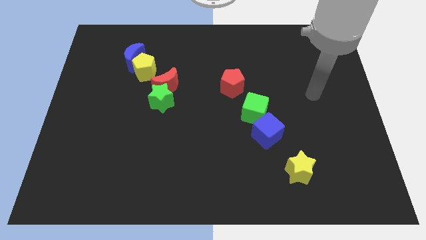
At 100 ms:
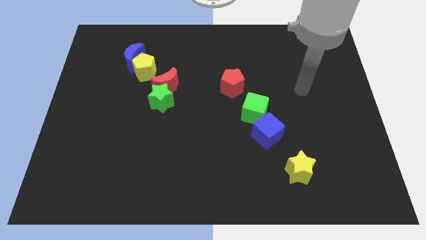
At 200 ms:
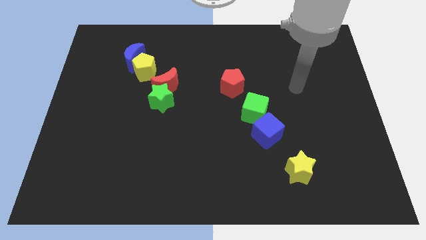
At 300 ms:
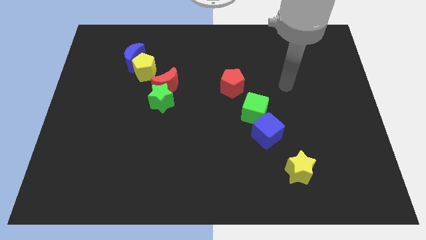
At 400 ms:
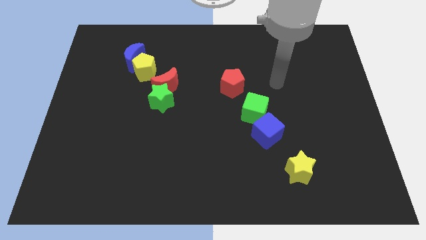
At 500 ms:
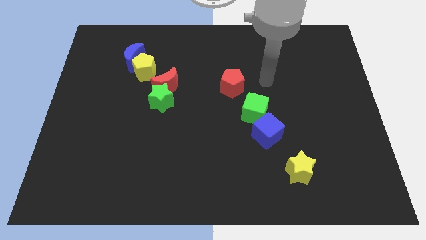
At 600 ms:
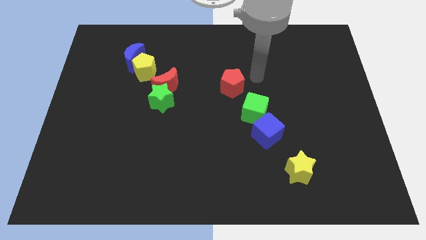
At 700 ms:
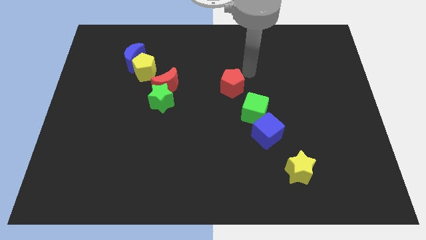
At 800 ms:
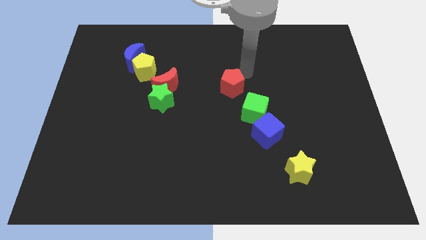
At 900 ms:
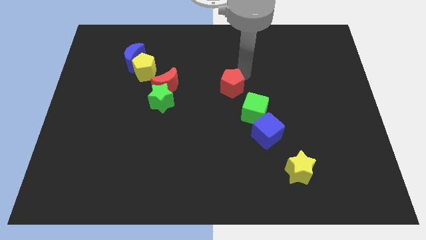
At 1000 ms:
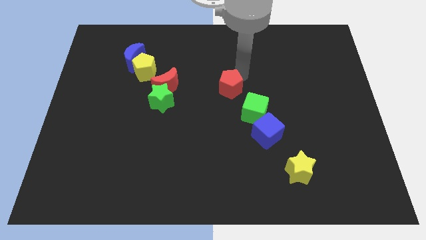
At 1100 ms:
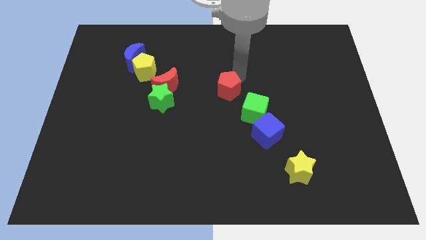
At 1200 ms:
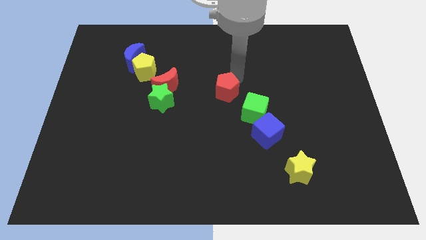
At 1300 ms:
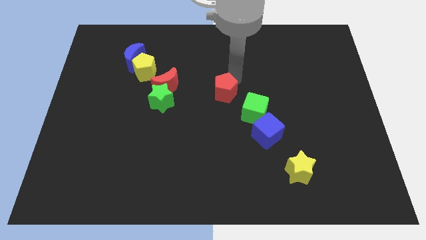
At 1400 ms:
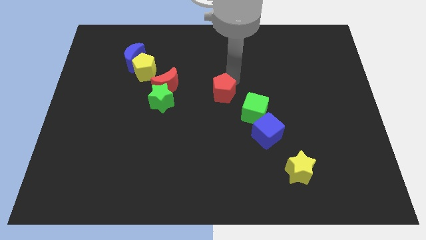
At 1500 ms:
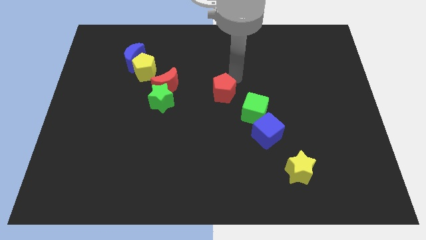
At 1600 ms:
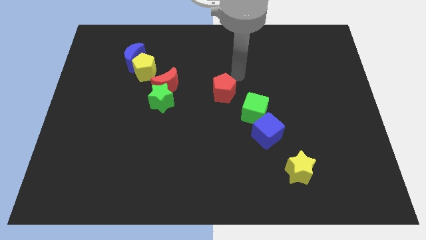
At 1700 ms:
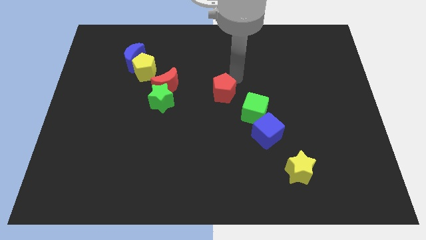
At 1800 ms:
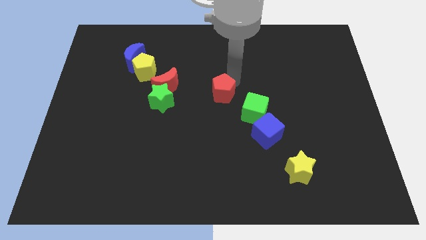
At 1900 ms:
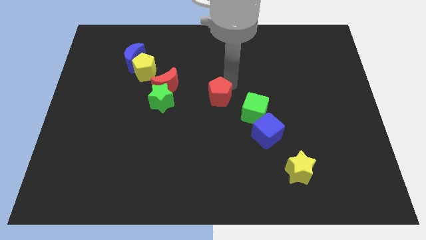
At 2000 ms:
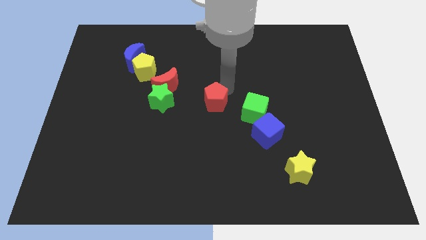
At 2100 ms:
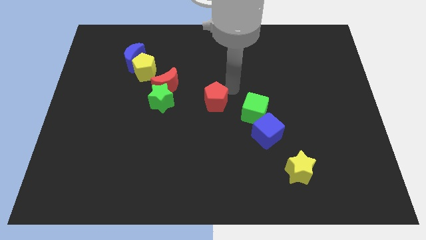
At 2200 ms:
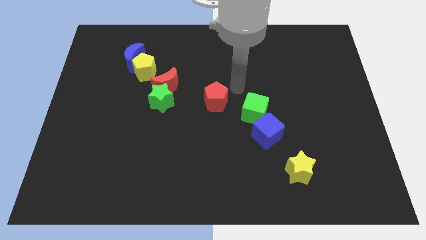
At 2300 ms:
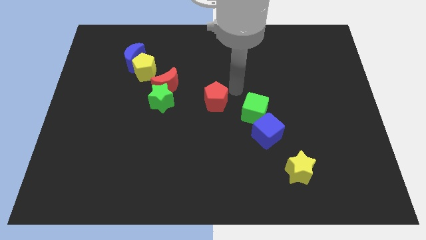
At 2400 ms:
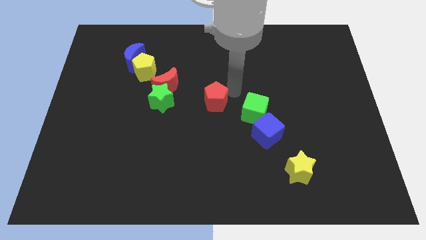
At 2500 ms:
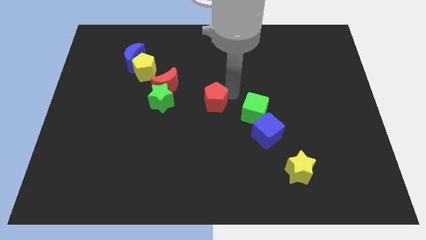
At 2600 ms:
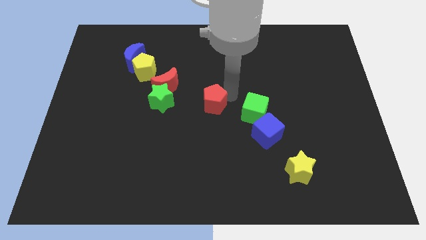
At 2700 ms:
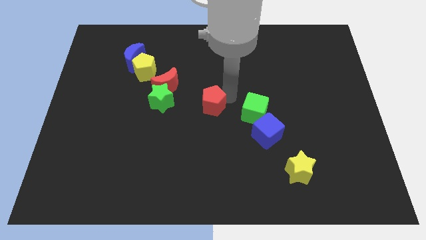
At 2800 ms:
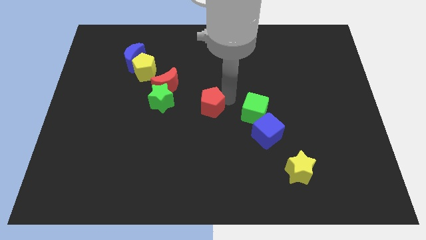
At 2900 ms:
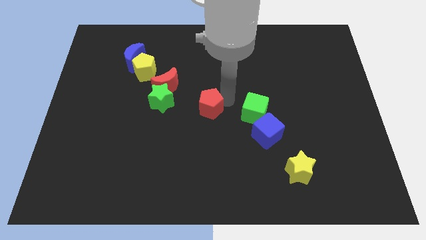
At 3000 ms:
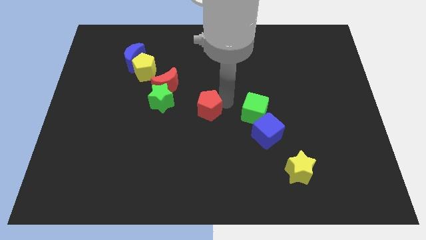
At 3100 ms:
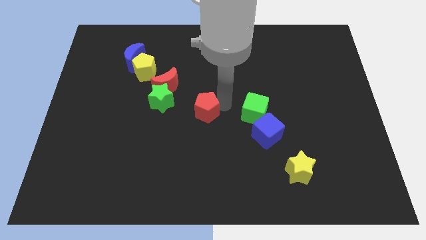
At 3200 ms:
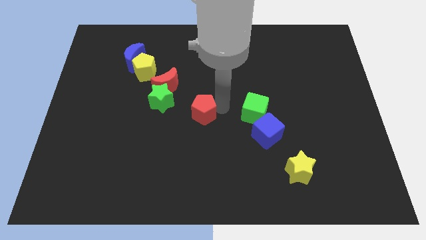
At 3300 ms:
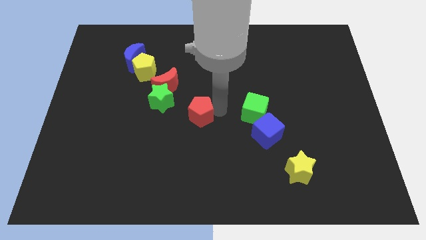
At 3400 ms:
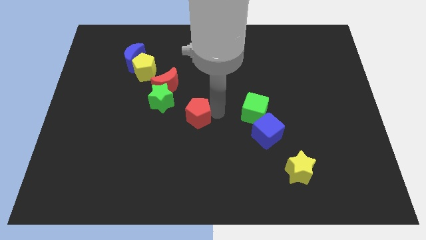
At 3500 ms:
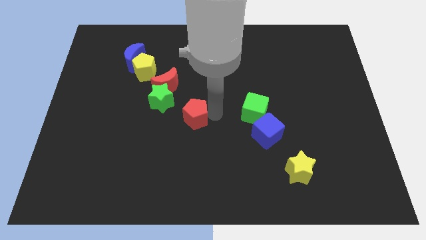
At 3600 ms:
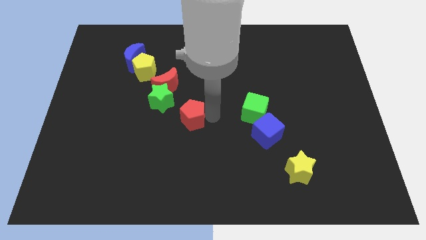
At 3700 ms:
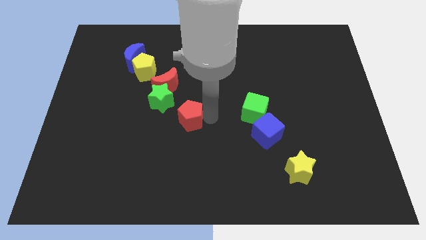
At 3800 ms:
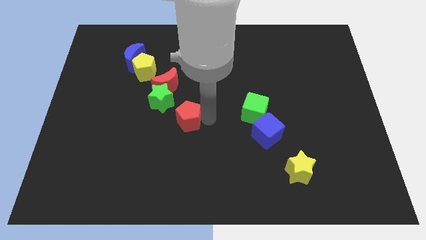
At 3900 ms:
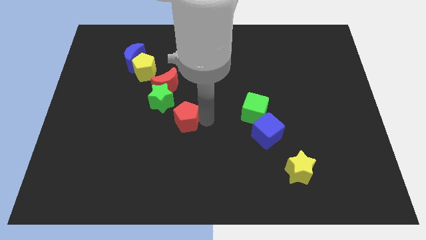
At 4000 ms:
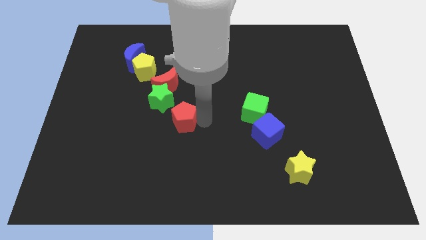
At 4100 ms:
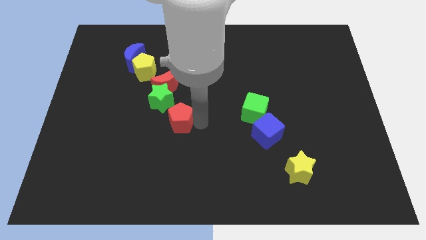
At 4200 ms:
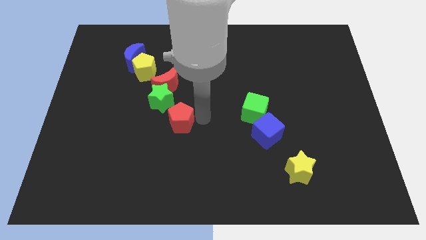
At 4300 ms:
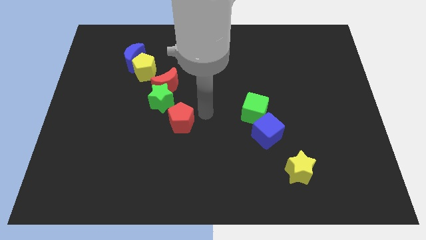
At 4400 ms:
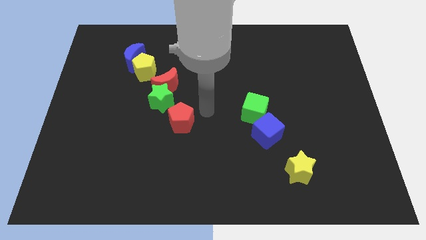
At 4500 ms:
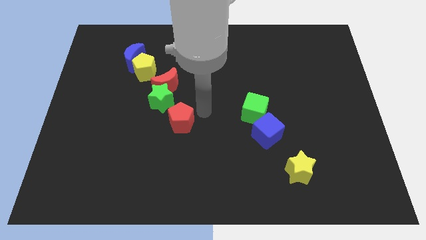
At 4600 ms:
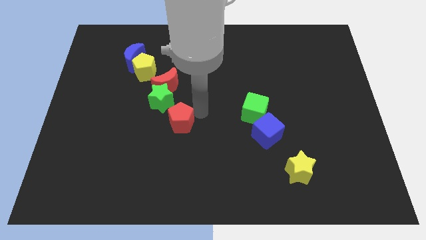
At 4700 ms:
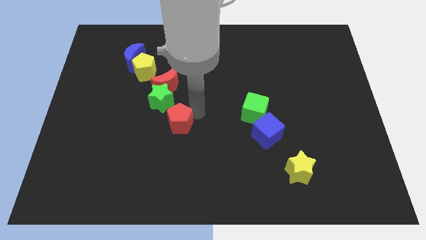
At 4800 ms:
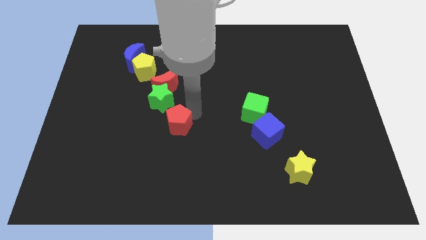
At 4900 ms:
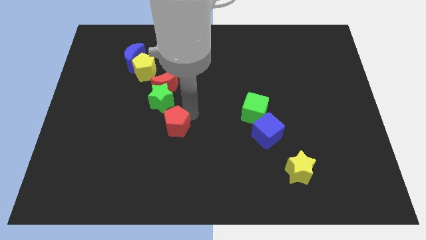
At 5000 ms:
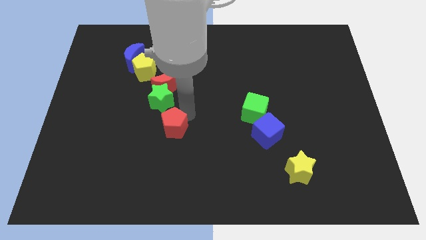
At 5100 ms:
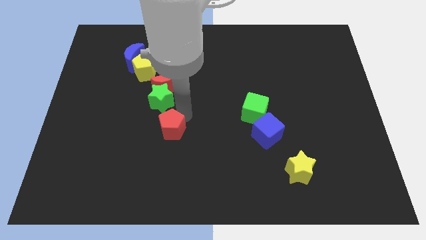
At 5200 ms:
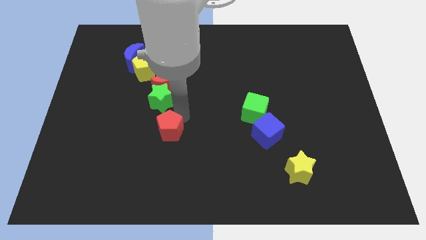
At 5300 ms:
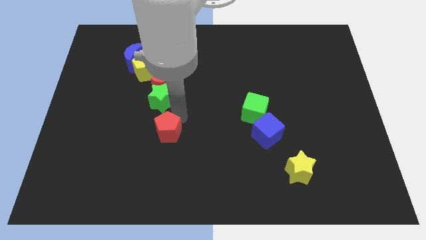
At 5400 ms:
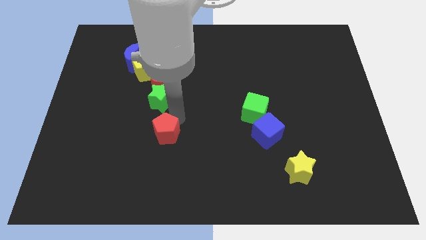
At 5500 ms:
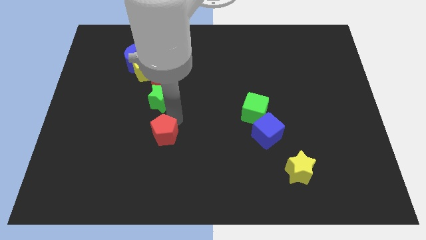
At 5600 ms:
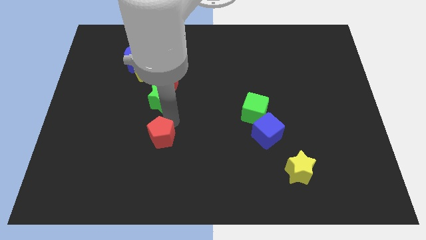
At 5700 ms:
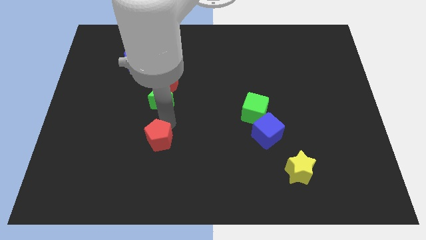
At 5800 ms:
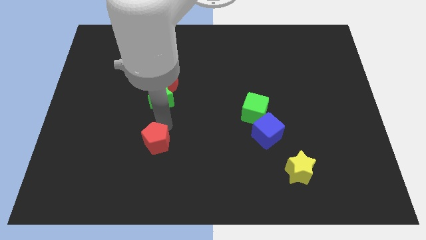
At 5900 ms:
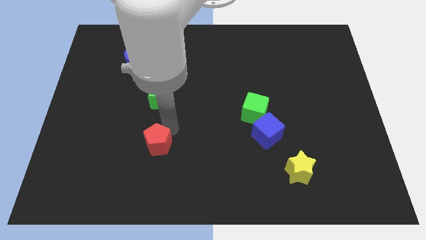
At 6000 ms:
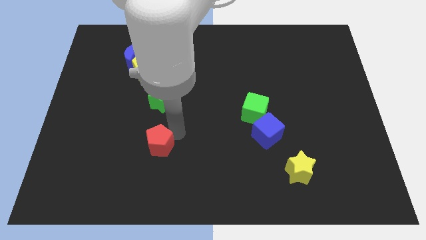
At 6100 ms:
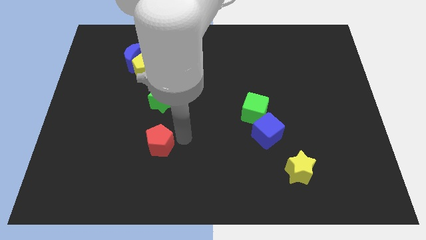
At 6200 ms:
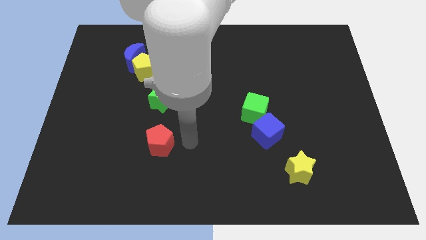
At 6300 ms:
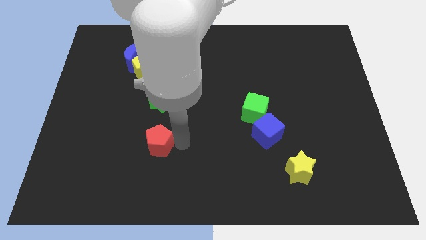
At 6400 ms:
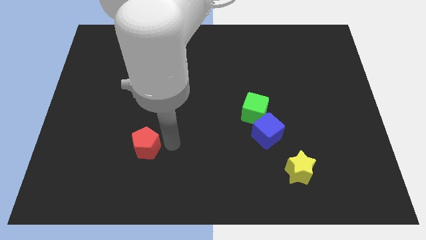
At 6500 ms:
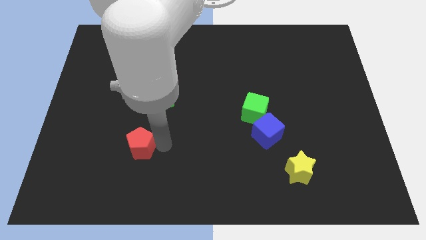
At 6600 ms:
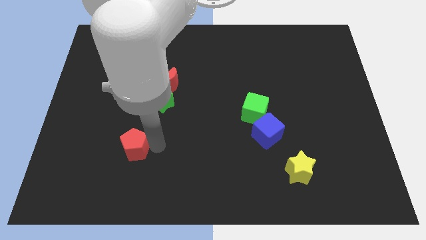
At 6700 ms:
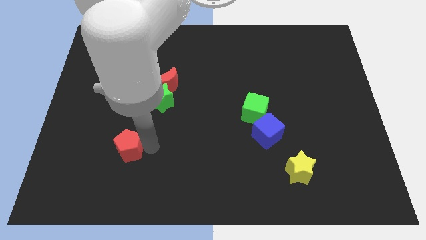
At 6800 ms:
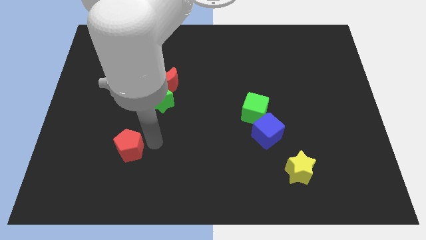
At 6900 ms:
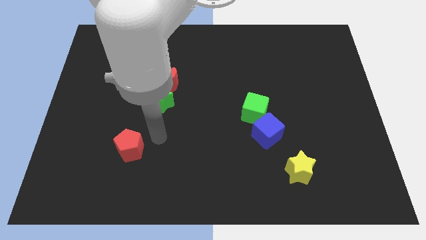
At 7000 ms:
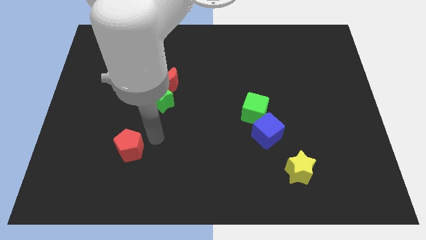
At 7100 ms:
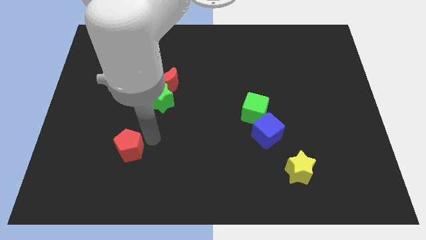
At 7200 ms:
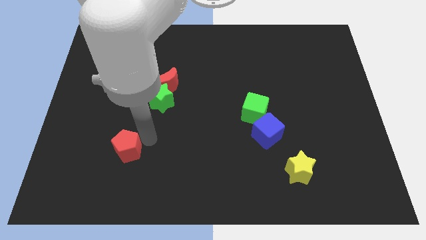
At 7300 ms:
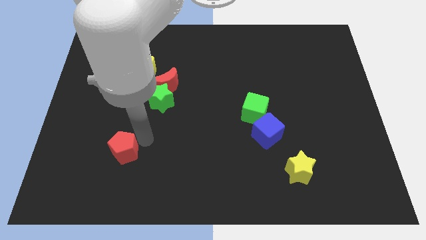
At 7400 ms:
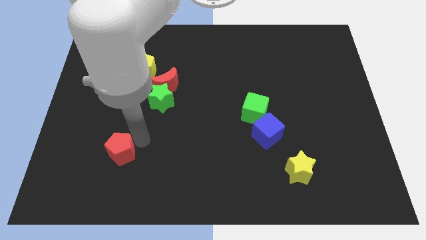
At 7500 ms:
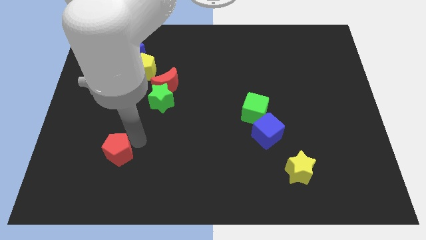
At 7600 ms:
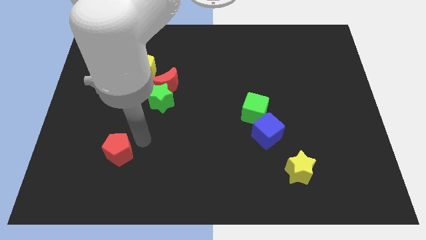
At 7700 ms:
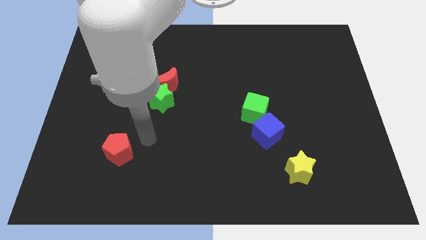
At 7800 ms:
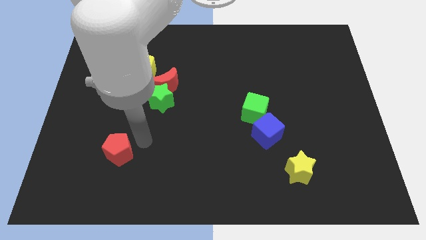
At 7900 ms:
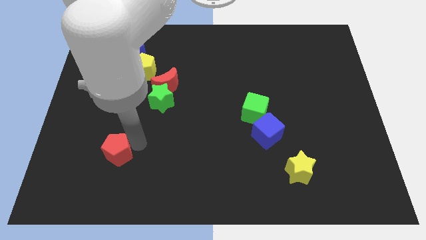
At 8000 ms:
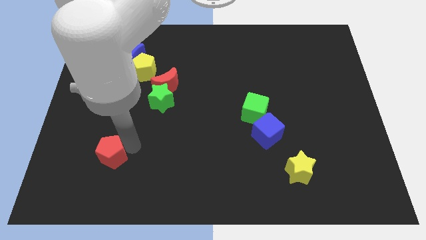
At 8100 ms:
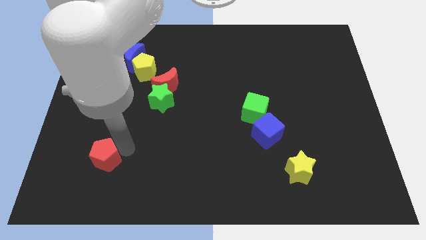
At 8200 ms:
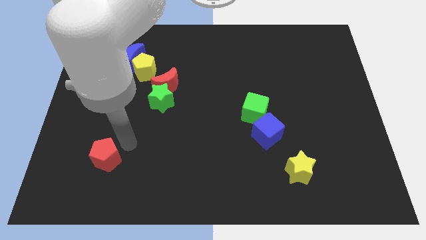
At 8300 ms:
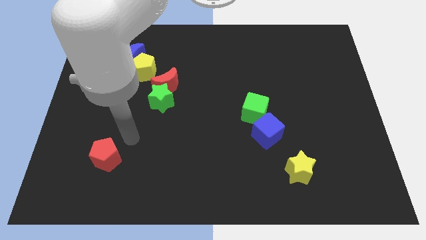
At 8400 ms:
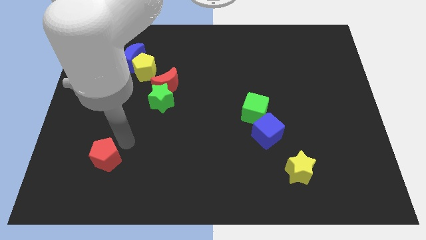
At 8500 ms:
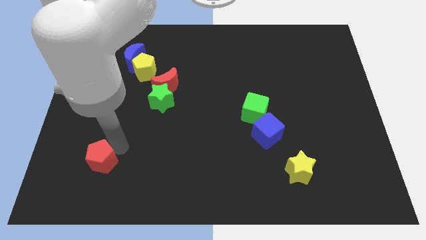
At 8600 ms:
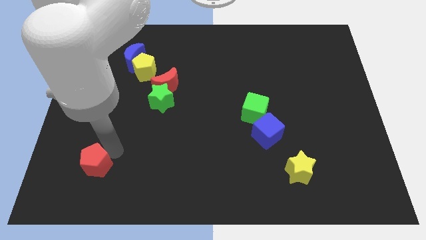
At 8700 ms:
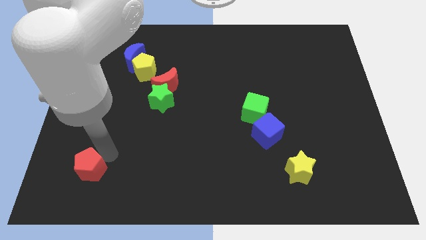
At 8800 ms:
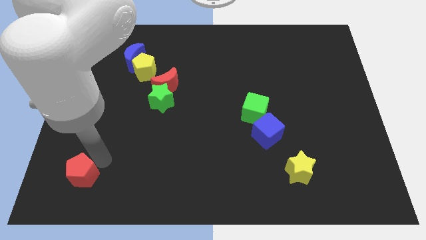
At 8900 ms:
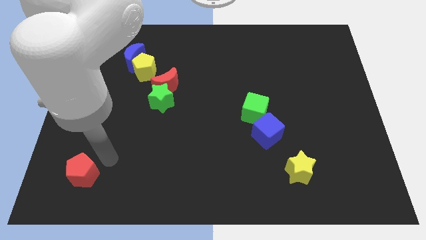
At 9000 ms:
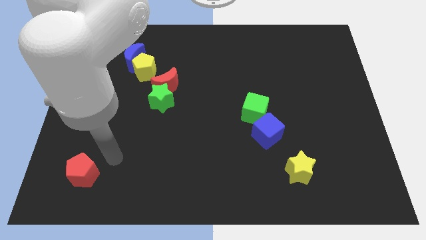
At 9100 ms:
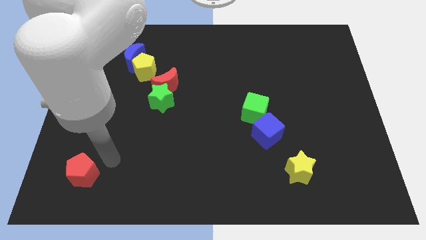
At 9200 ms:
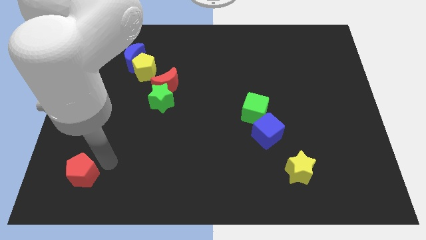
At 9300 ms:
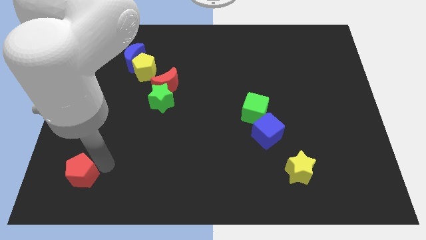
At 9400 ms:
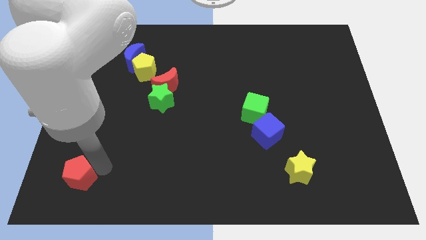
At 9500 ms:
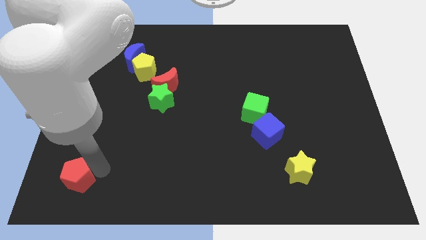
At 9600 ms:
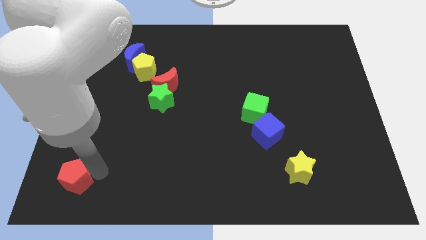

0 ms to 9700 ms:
slide the red pentagon to the lower left corner
